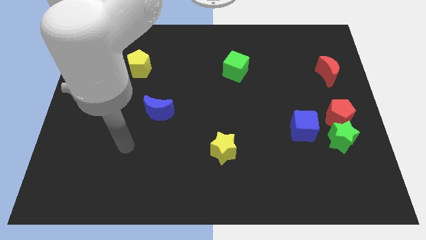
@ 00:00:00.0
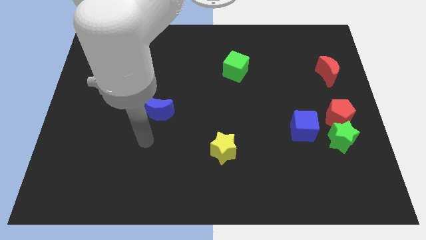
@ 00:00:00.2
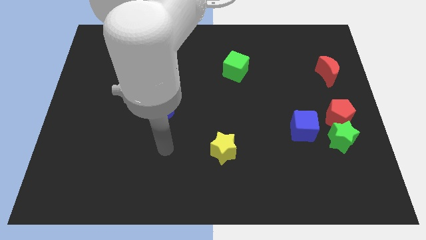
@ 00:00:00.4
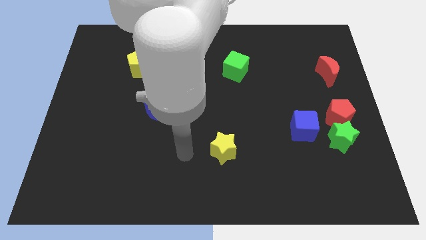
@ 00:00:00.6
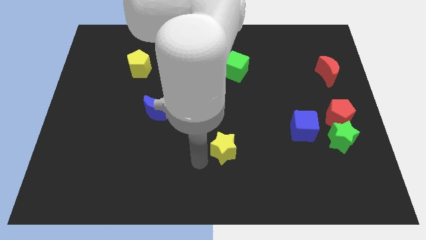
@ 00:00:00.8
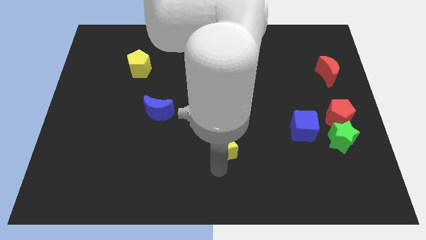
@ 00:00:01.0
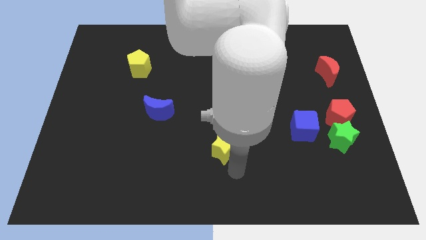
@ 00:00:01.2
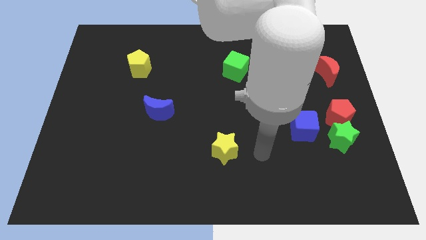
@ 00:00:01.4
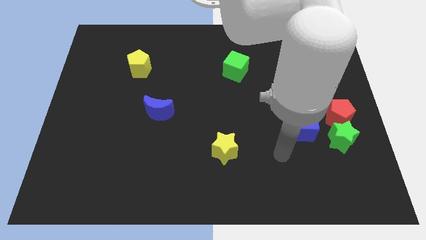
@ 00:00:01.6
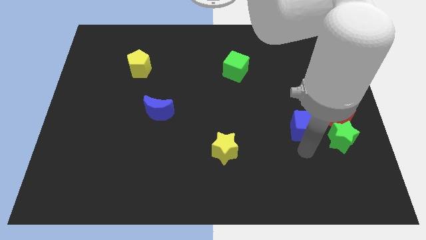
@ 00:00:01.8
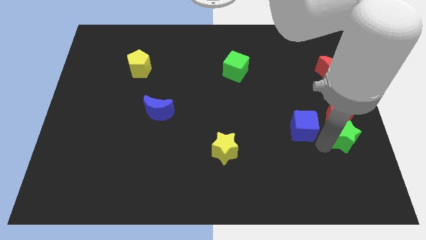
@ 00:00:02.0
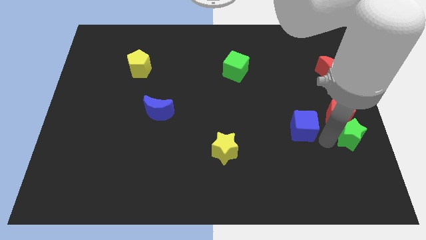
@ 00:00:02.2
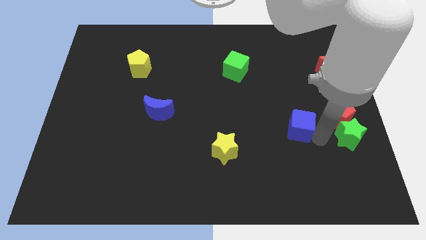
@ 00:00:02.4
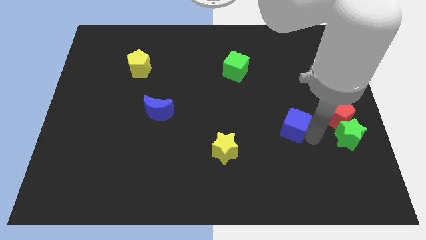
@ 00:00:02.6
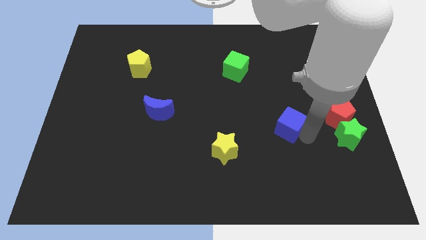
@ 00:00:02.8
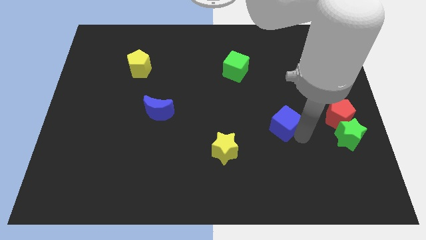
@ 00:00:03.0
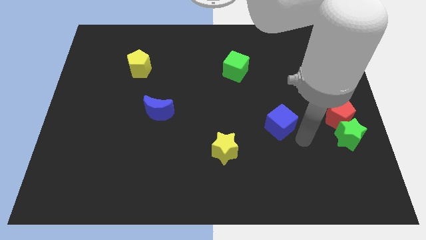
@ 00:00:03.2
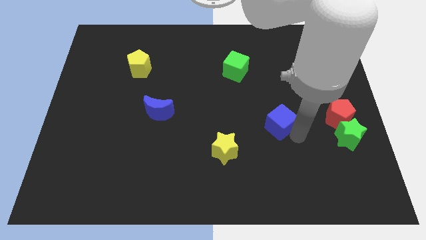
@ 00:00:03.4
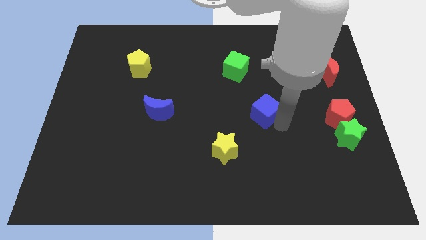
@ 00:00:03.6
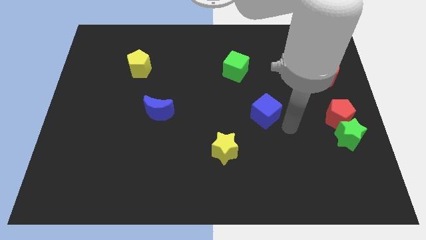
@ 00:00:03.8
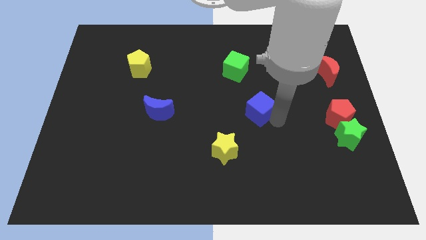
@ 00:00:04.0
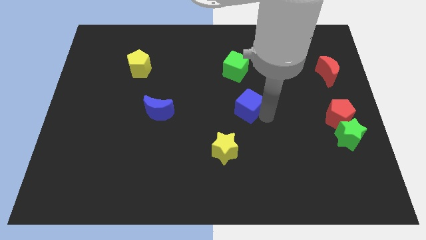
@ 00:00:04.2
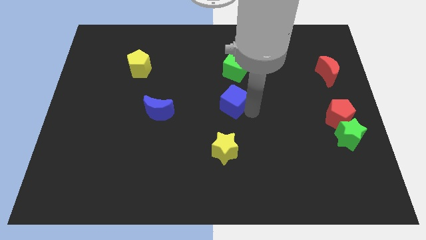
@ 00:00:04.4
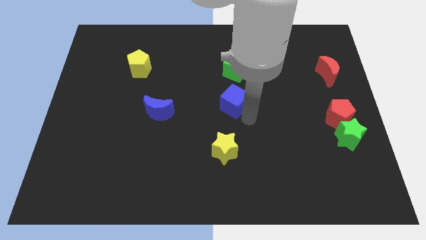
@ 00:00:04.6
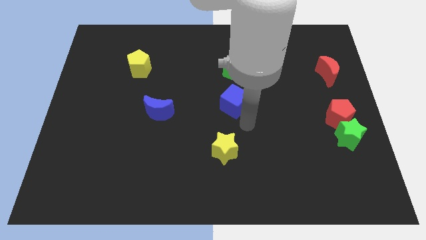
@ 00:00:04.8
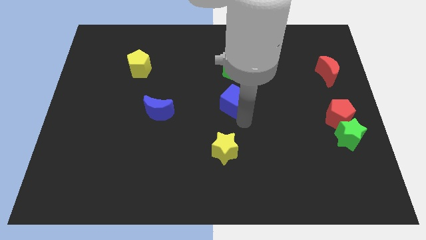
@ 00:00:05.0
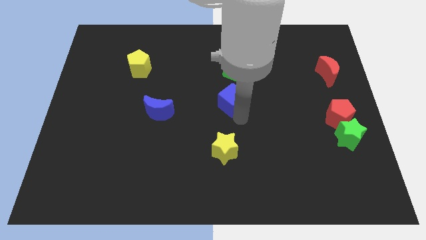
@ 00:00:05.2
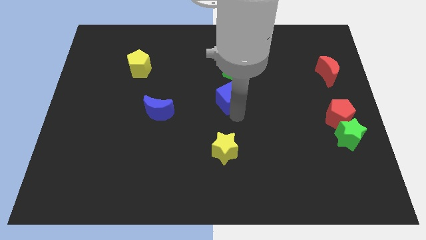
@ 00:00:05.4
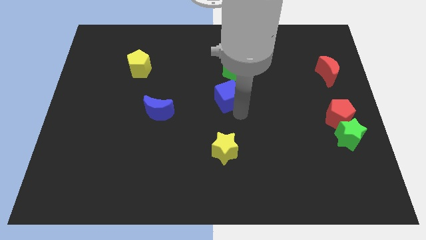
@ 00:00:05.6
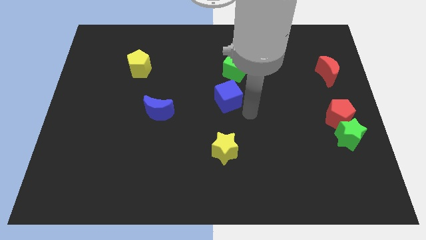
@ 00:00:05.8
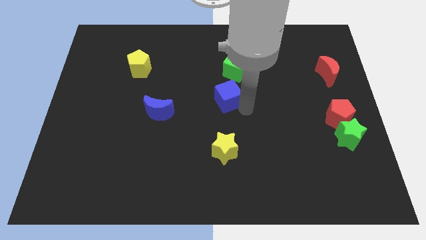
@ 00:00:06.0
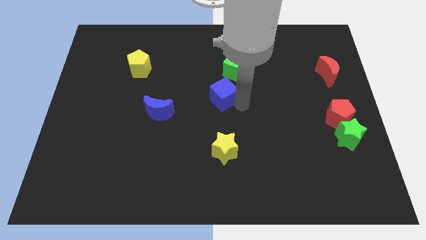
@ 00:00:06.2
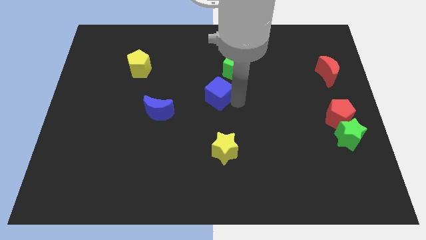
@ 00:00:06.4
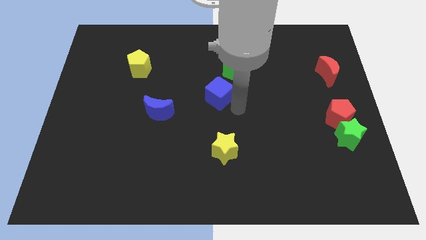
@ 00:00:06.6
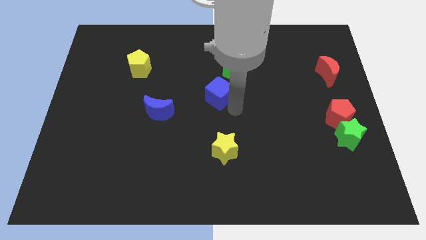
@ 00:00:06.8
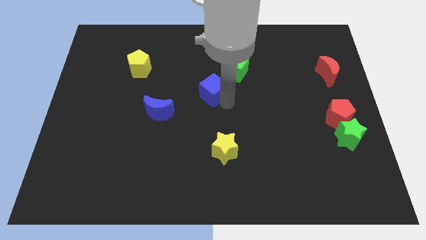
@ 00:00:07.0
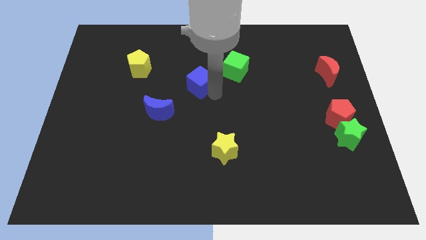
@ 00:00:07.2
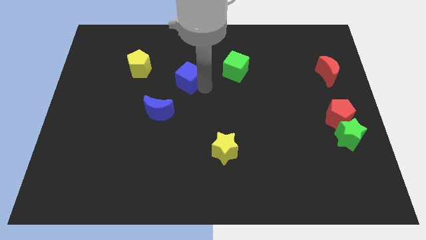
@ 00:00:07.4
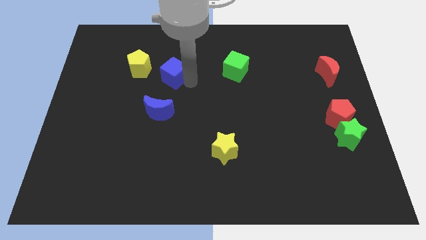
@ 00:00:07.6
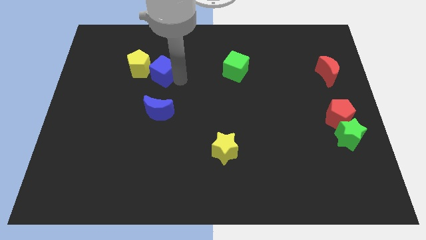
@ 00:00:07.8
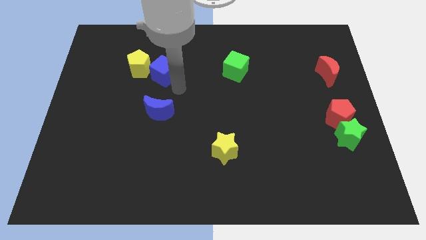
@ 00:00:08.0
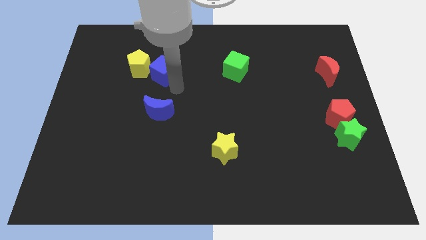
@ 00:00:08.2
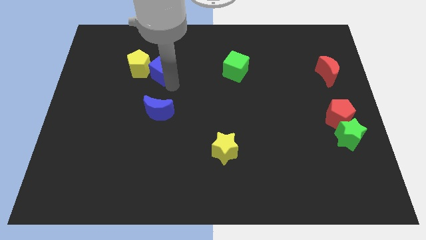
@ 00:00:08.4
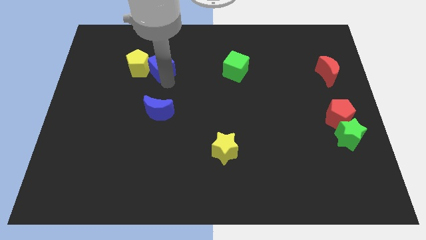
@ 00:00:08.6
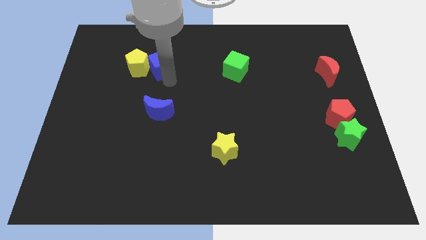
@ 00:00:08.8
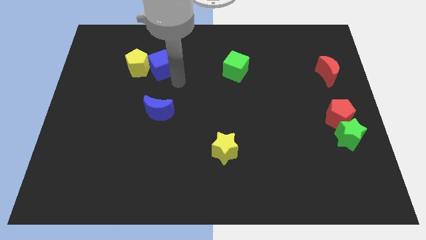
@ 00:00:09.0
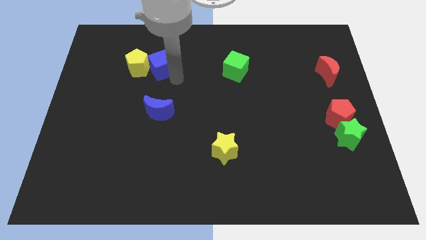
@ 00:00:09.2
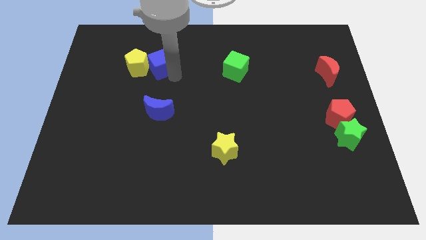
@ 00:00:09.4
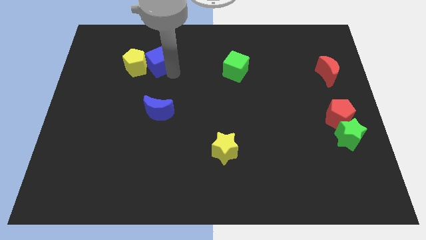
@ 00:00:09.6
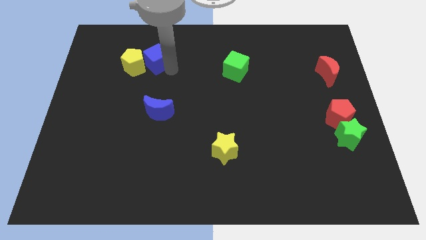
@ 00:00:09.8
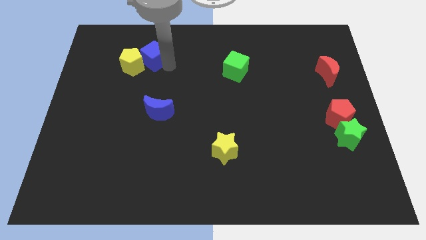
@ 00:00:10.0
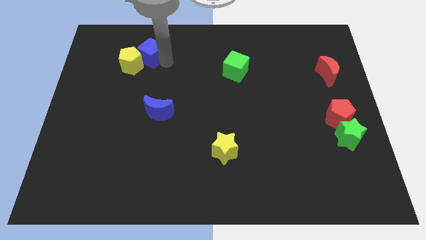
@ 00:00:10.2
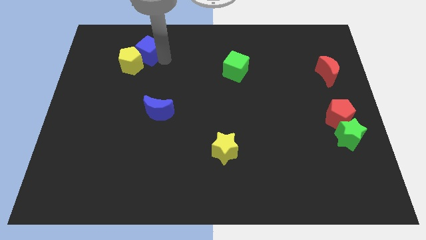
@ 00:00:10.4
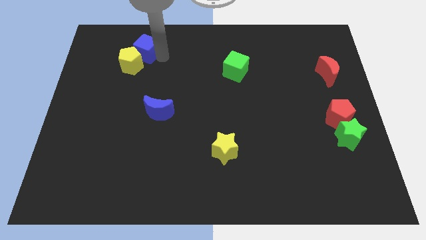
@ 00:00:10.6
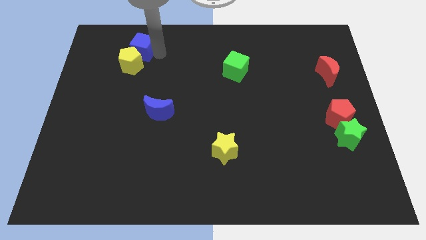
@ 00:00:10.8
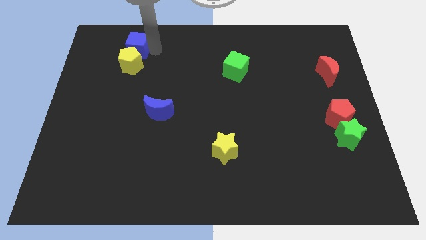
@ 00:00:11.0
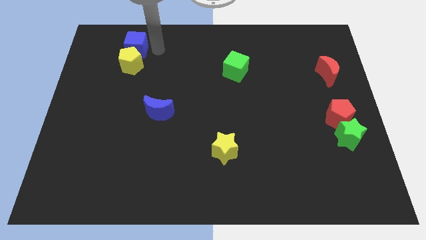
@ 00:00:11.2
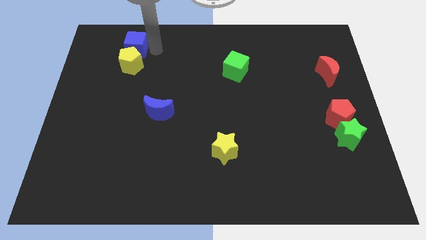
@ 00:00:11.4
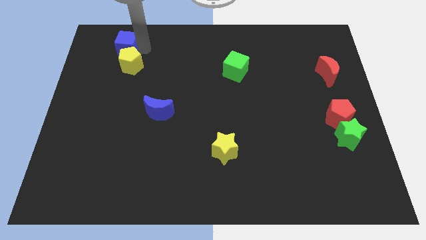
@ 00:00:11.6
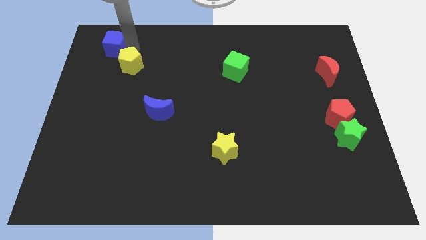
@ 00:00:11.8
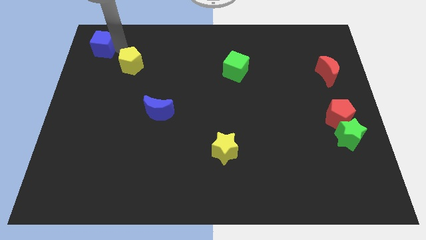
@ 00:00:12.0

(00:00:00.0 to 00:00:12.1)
put the blue cube to the top left
